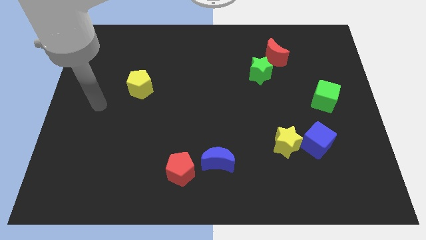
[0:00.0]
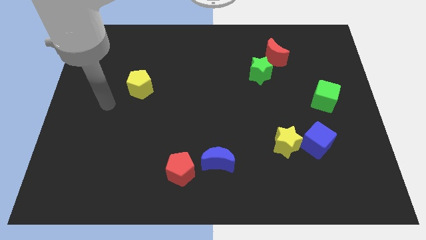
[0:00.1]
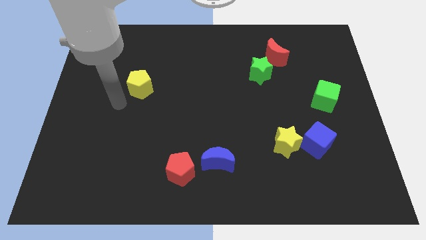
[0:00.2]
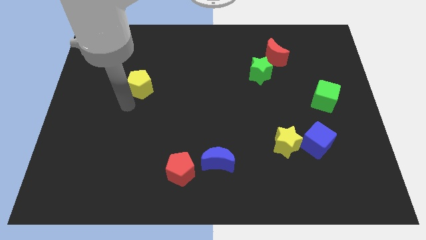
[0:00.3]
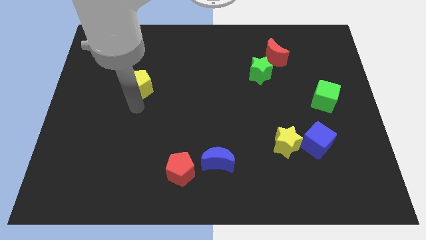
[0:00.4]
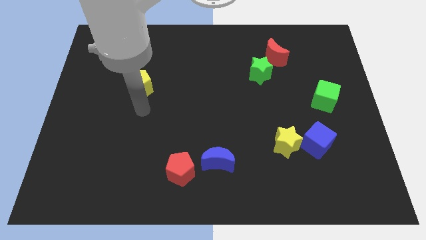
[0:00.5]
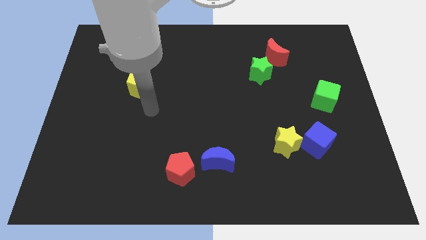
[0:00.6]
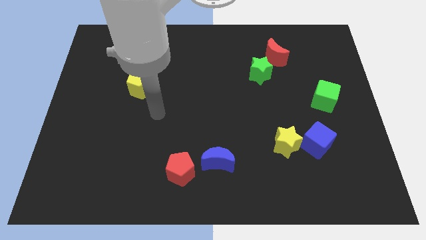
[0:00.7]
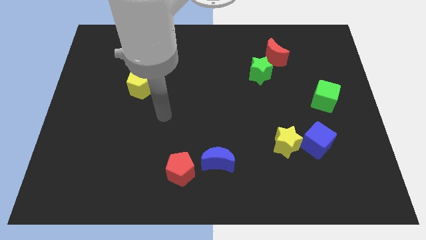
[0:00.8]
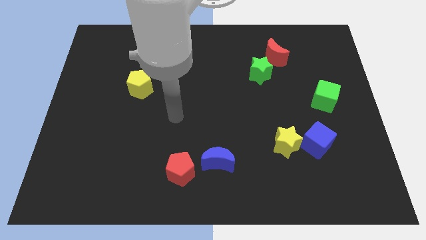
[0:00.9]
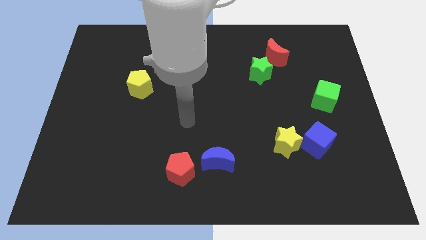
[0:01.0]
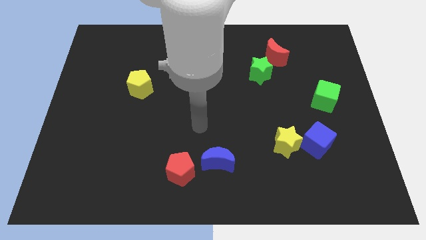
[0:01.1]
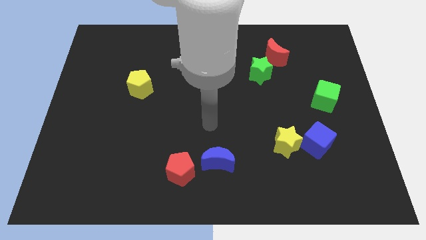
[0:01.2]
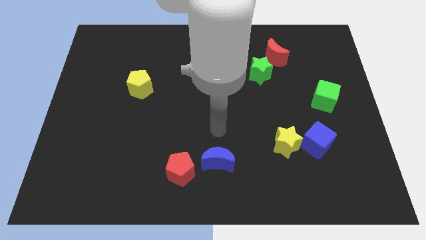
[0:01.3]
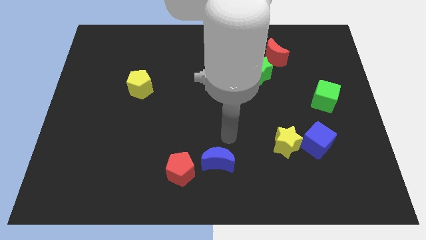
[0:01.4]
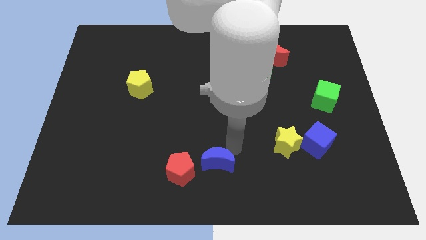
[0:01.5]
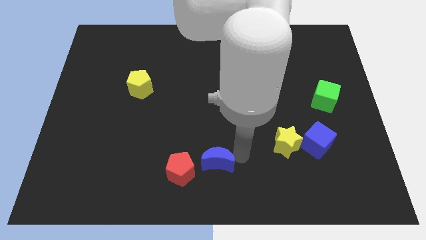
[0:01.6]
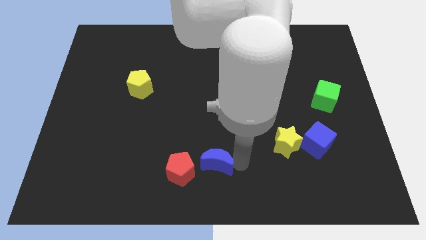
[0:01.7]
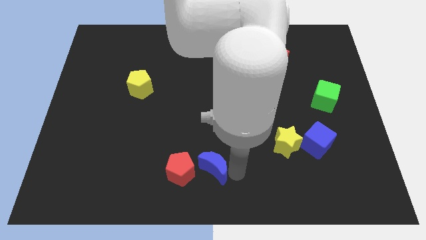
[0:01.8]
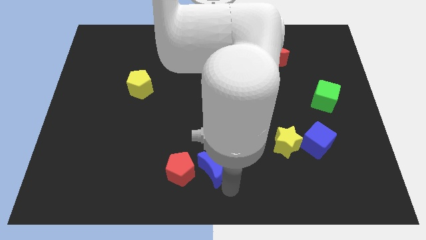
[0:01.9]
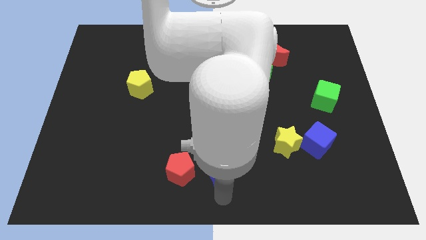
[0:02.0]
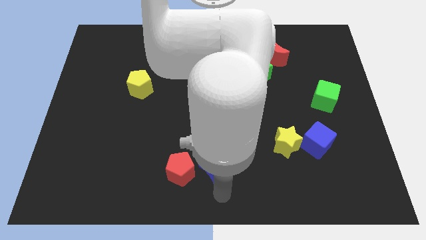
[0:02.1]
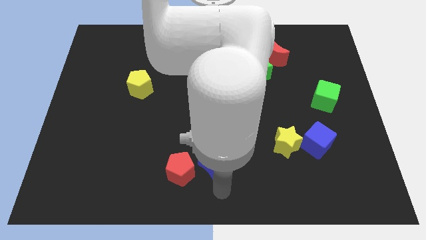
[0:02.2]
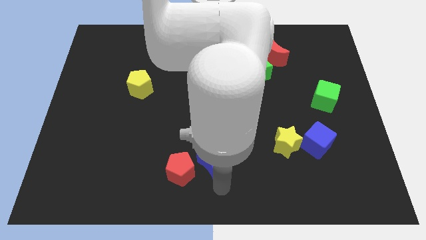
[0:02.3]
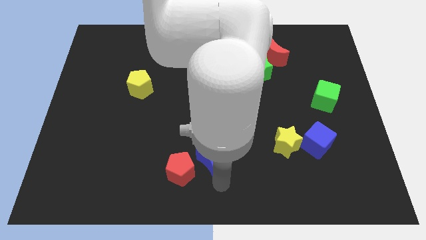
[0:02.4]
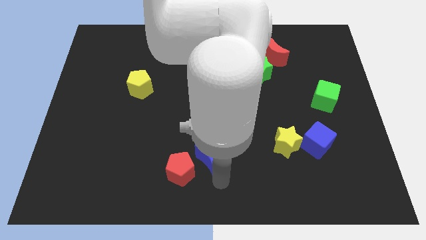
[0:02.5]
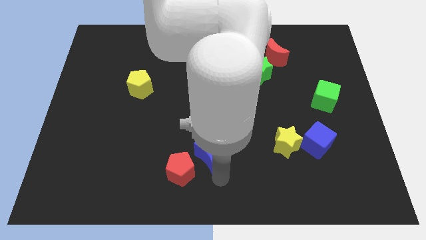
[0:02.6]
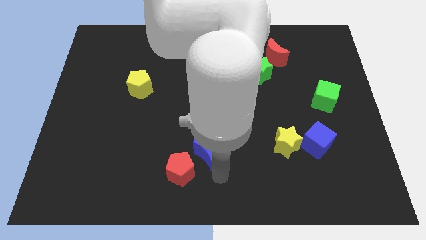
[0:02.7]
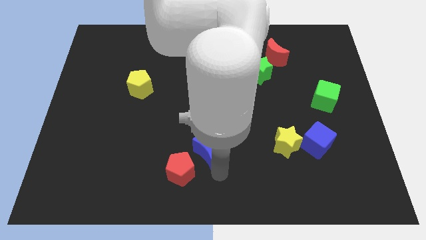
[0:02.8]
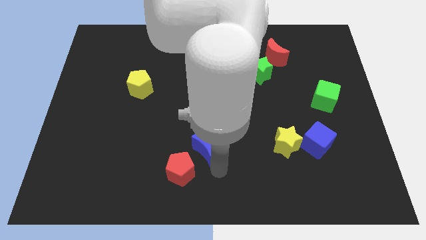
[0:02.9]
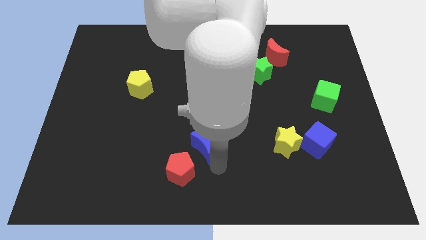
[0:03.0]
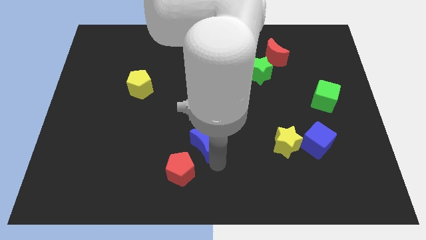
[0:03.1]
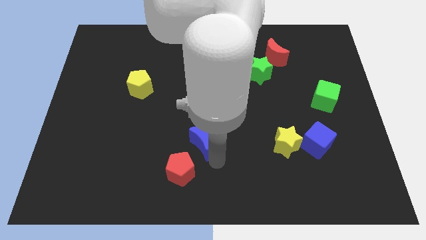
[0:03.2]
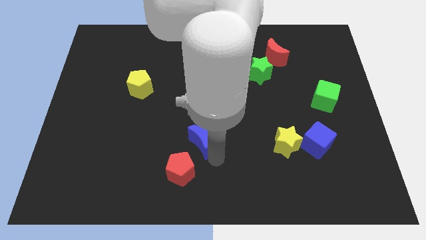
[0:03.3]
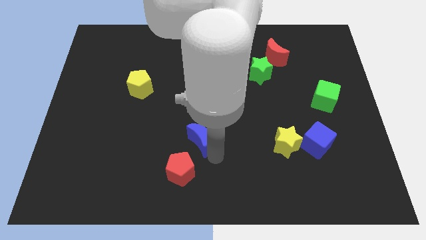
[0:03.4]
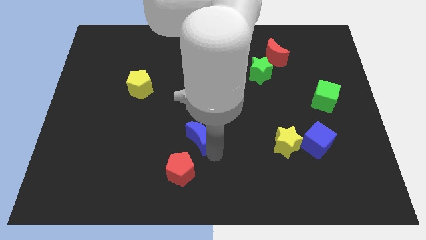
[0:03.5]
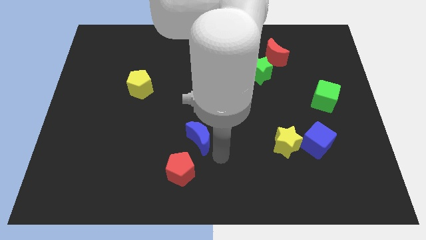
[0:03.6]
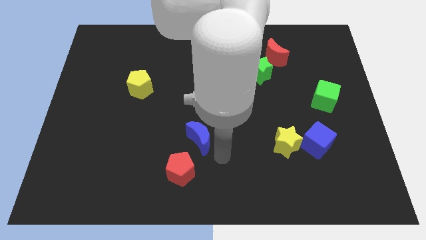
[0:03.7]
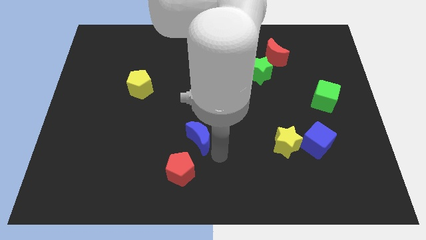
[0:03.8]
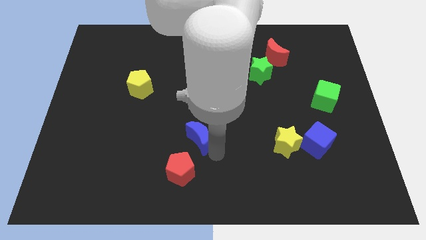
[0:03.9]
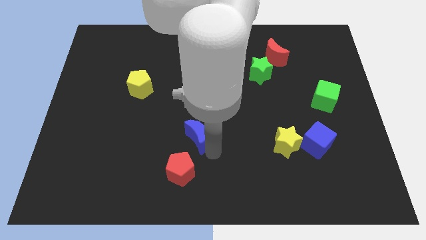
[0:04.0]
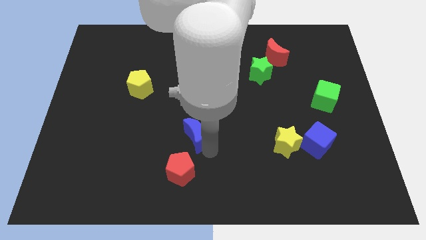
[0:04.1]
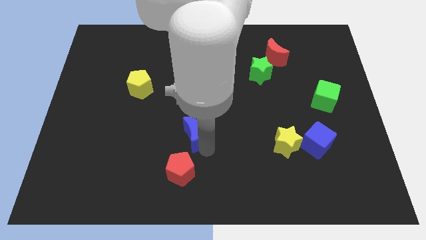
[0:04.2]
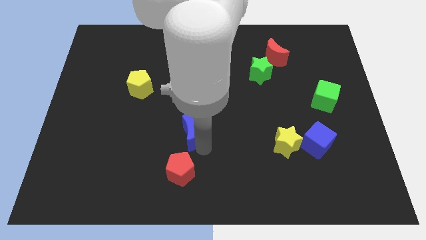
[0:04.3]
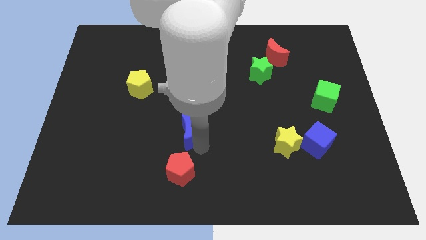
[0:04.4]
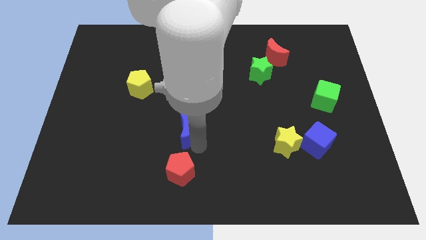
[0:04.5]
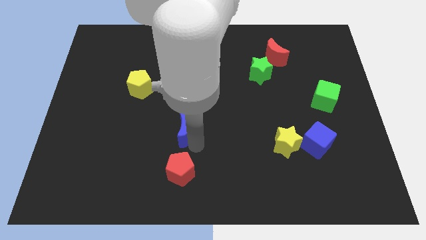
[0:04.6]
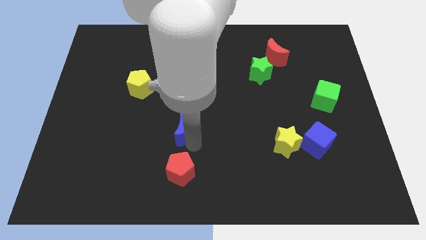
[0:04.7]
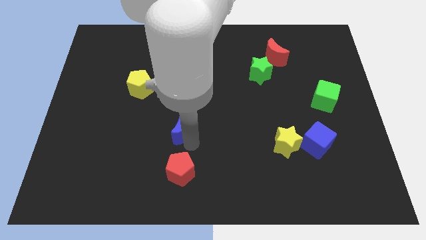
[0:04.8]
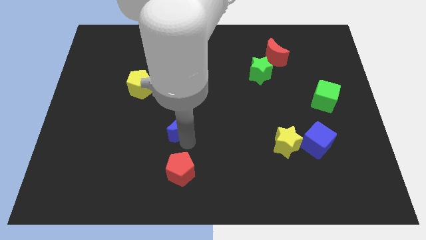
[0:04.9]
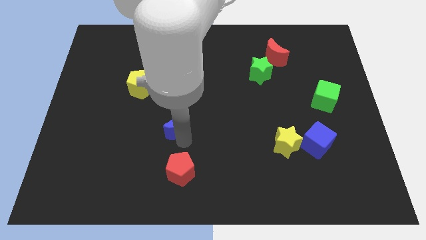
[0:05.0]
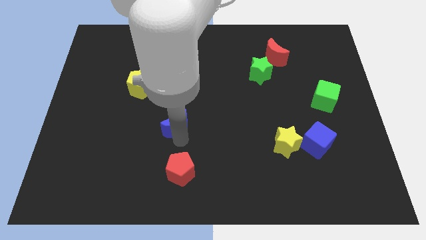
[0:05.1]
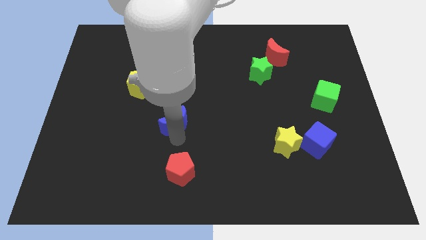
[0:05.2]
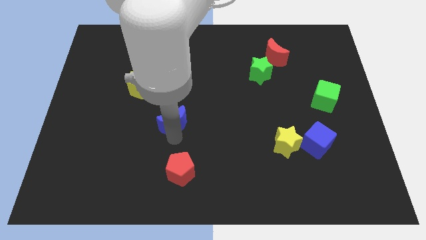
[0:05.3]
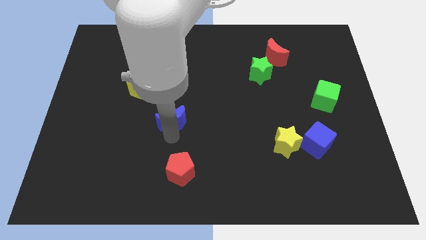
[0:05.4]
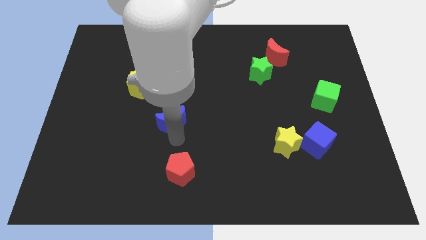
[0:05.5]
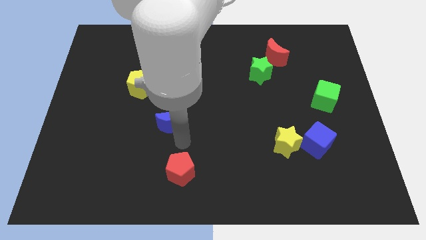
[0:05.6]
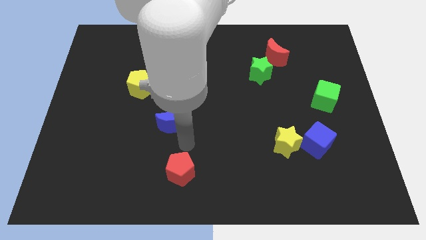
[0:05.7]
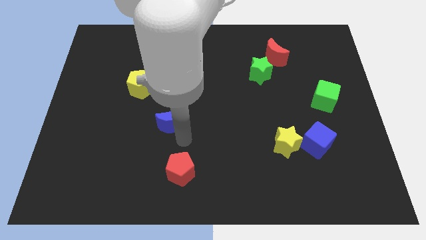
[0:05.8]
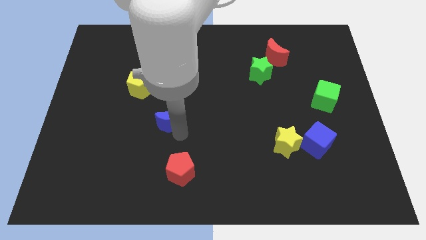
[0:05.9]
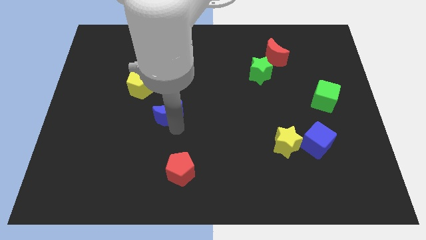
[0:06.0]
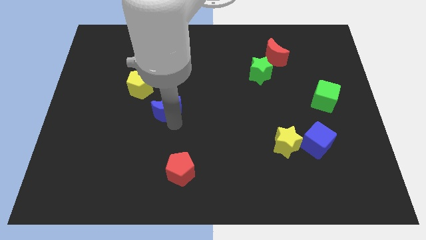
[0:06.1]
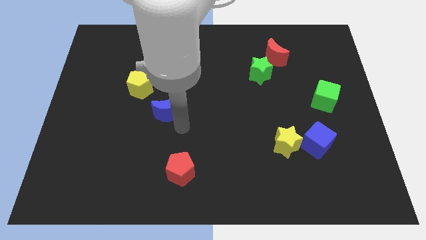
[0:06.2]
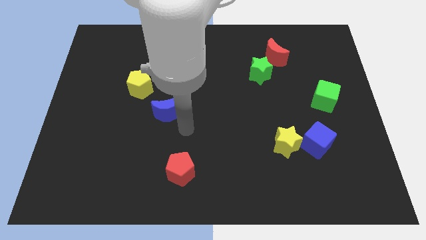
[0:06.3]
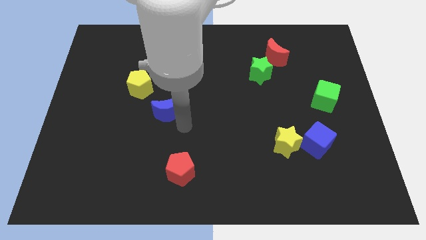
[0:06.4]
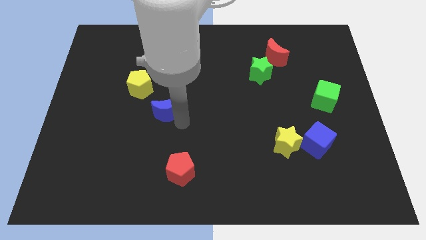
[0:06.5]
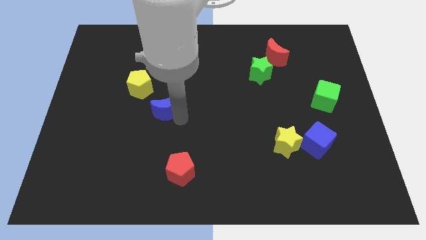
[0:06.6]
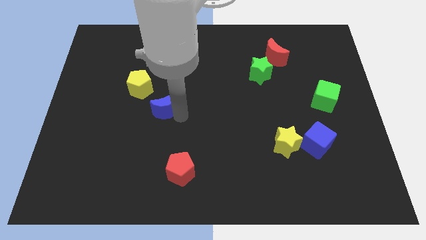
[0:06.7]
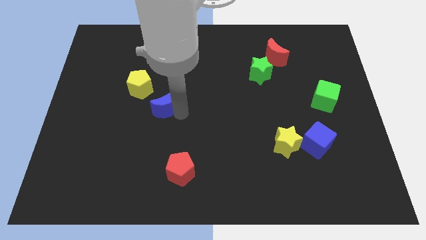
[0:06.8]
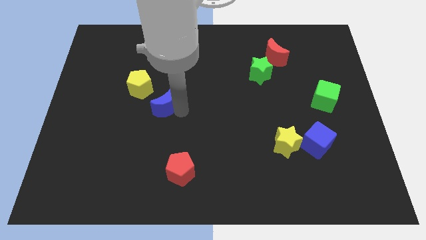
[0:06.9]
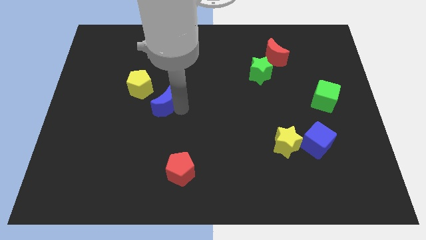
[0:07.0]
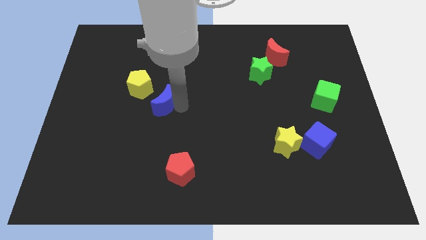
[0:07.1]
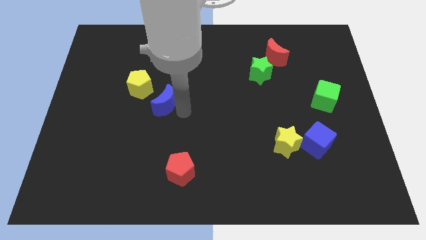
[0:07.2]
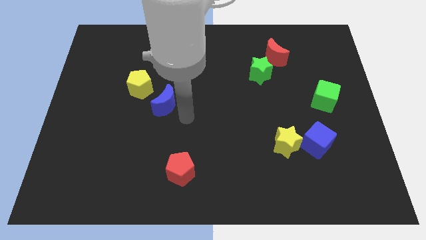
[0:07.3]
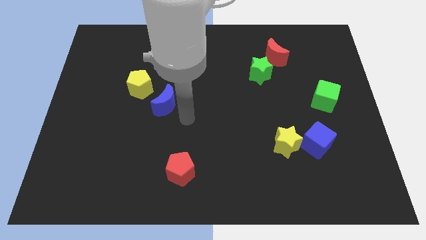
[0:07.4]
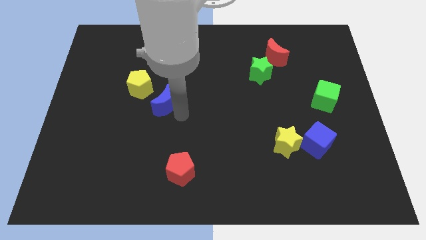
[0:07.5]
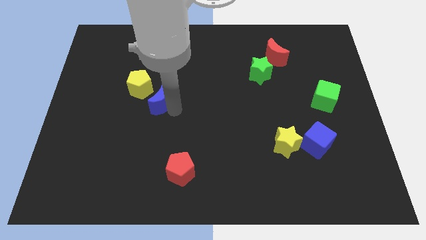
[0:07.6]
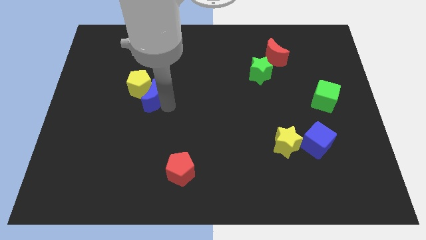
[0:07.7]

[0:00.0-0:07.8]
put the blue moon next to the yellow pentagon
